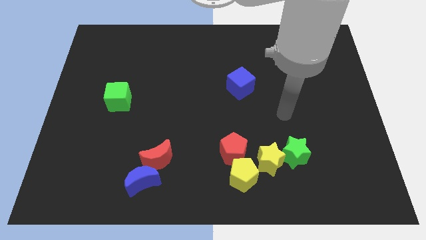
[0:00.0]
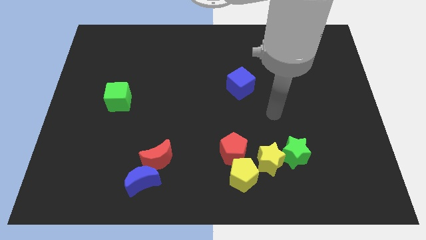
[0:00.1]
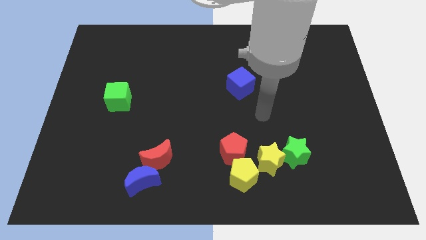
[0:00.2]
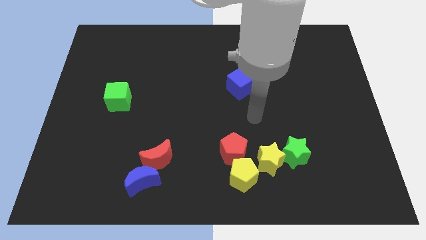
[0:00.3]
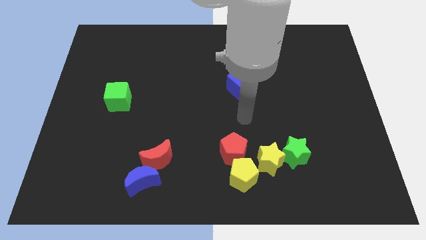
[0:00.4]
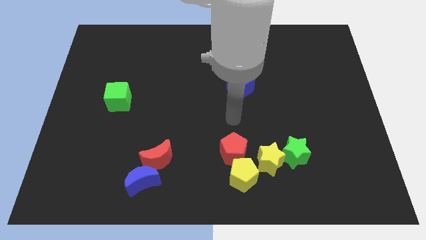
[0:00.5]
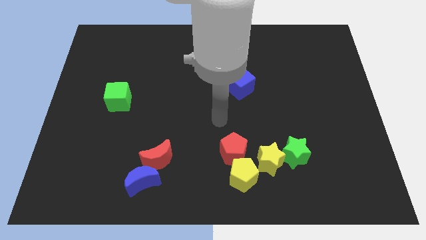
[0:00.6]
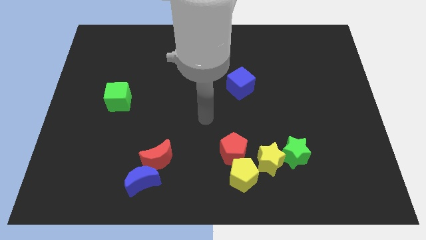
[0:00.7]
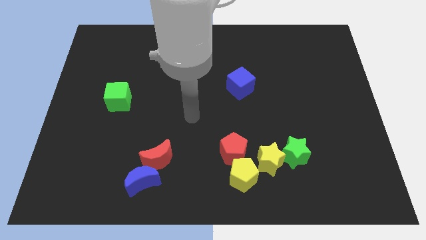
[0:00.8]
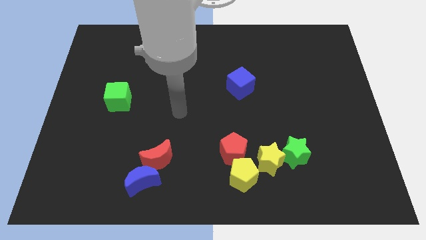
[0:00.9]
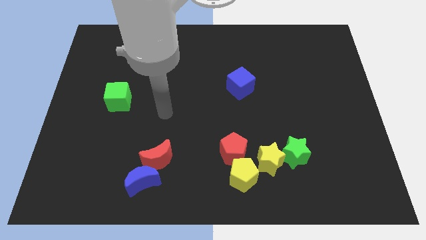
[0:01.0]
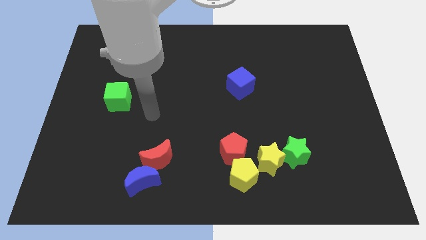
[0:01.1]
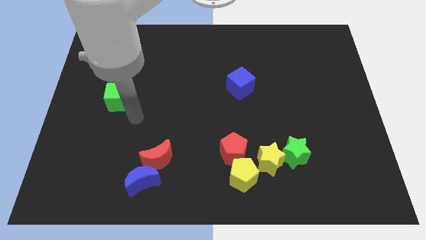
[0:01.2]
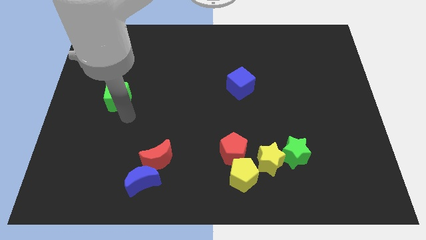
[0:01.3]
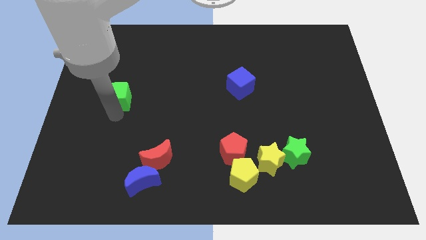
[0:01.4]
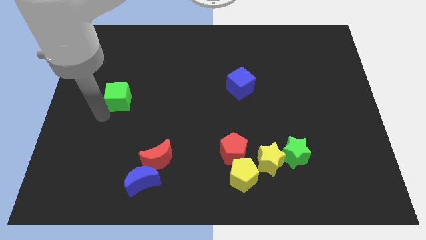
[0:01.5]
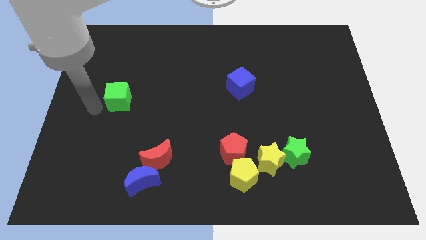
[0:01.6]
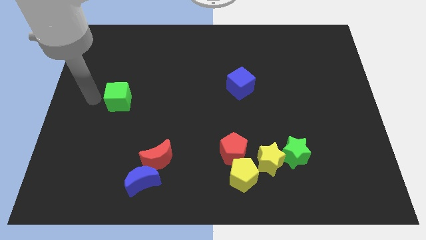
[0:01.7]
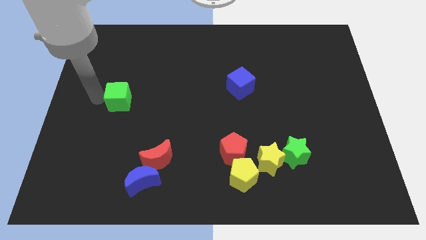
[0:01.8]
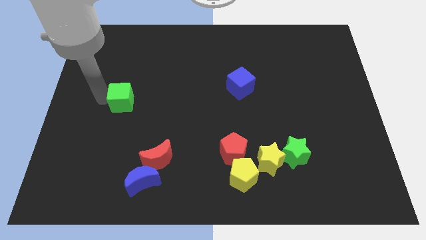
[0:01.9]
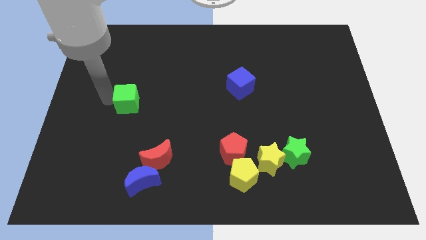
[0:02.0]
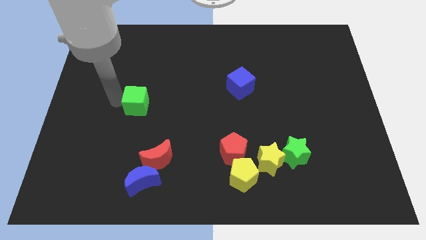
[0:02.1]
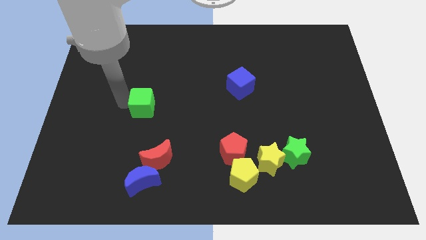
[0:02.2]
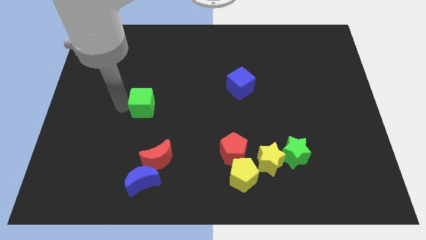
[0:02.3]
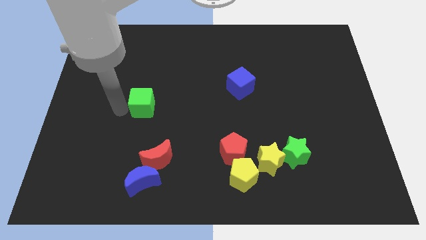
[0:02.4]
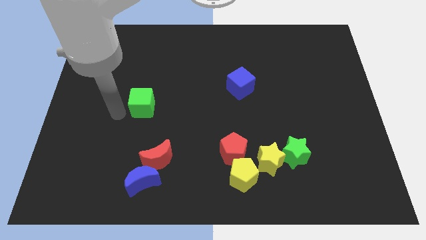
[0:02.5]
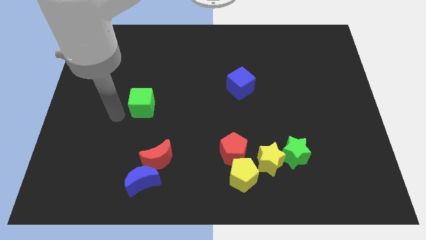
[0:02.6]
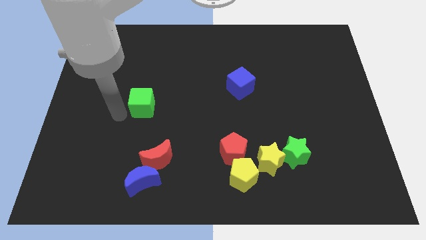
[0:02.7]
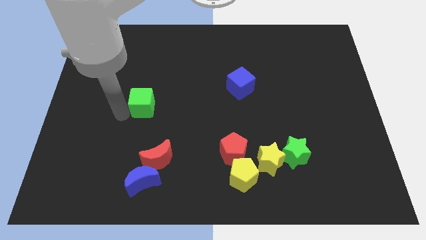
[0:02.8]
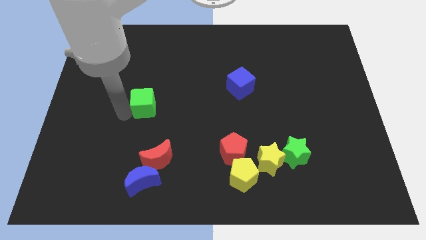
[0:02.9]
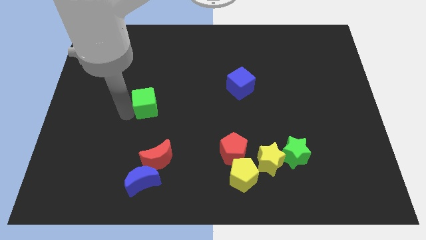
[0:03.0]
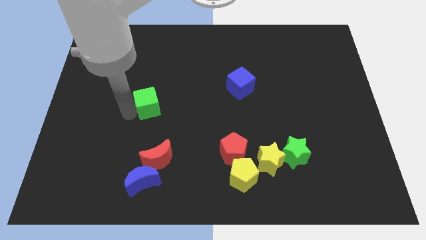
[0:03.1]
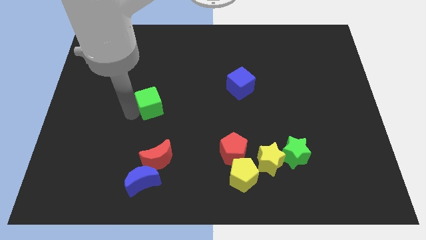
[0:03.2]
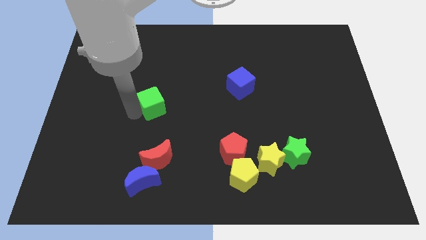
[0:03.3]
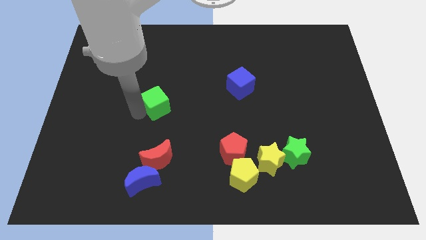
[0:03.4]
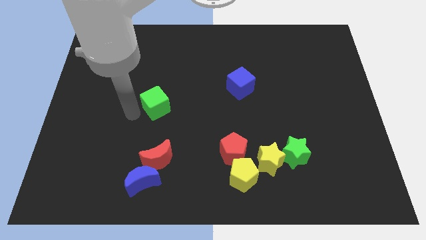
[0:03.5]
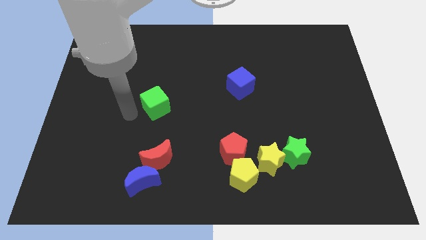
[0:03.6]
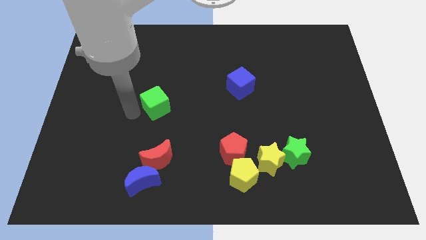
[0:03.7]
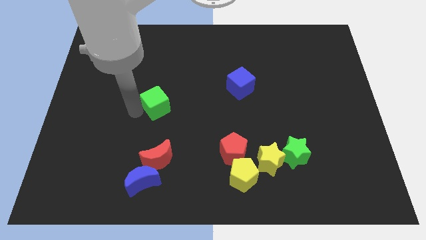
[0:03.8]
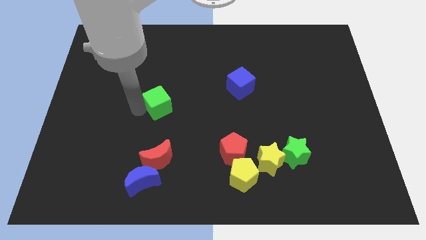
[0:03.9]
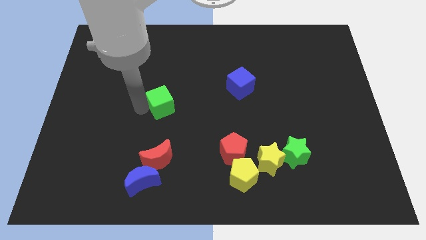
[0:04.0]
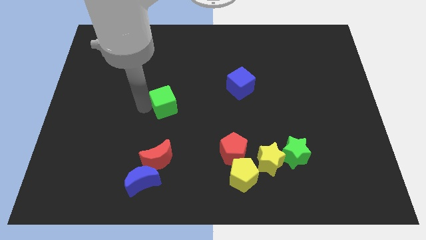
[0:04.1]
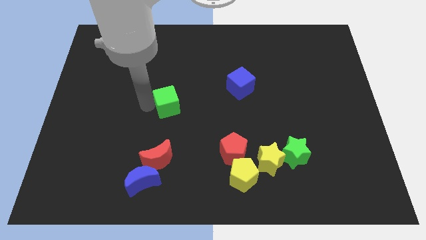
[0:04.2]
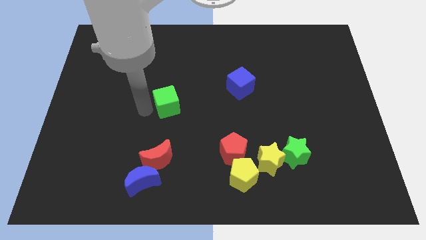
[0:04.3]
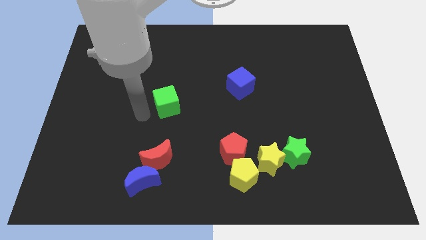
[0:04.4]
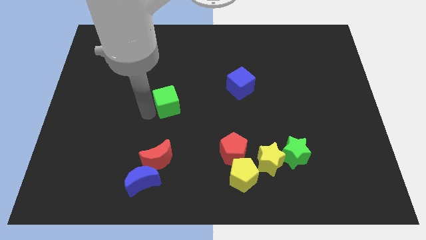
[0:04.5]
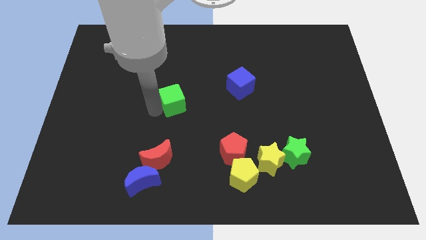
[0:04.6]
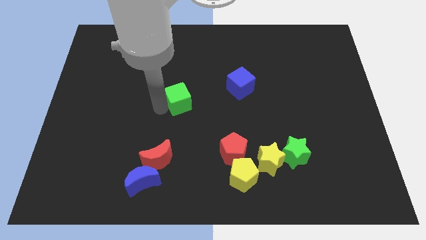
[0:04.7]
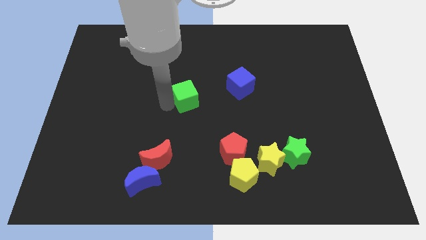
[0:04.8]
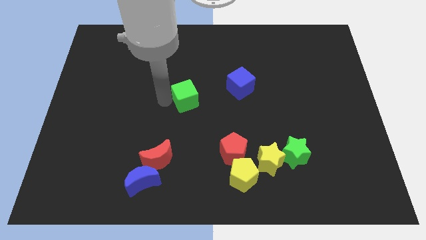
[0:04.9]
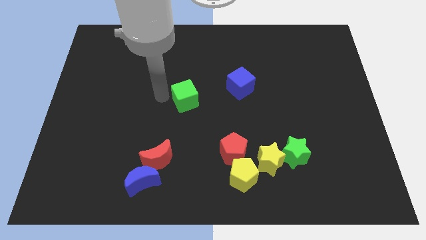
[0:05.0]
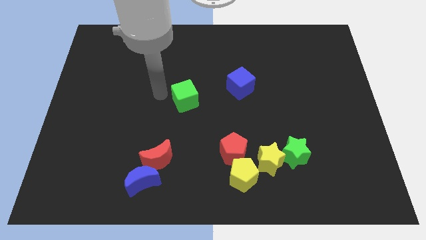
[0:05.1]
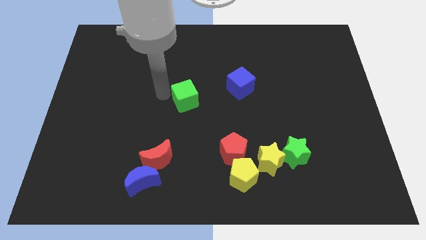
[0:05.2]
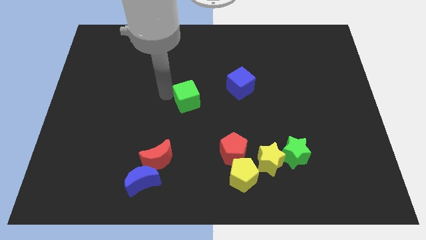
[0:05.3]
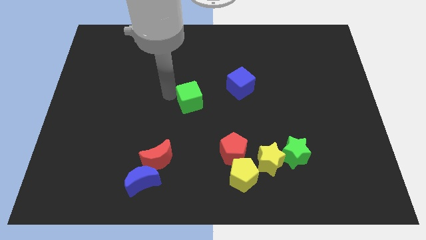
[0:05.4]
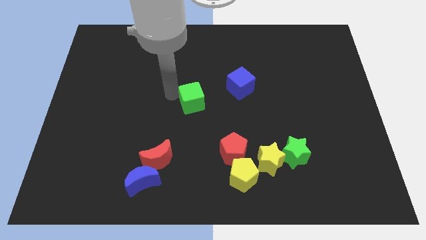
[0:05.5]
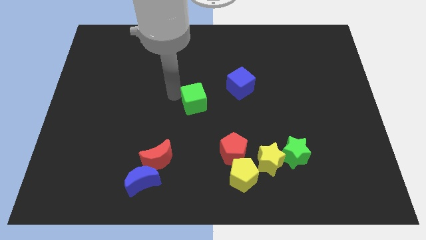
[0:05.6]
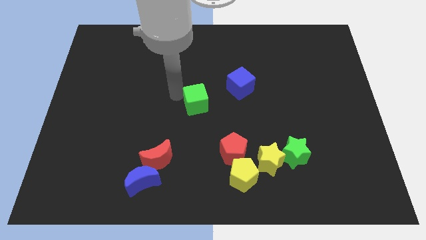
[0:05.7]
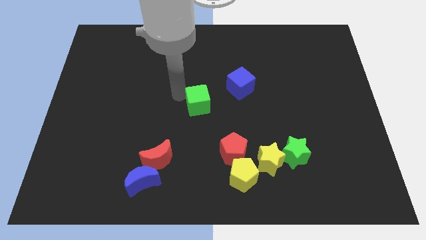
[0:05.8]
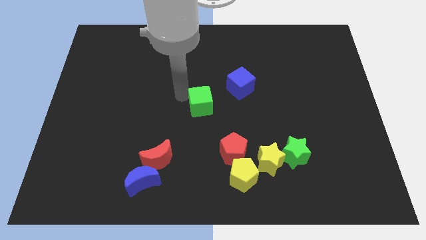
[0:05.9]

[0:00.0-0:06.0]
slide the green cube right

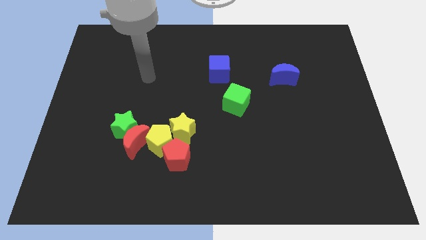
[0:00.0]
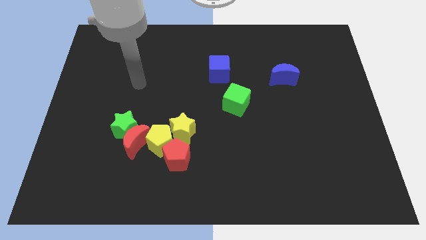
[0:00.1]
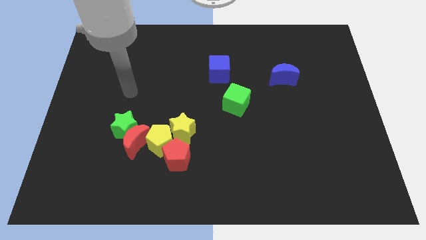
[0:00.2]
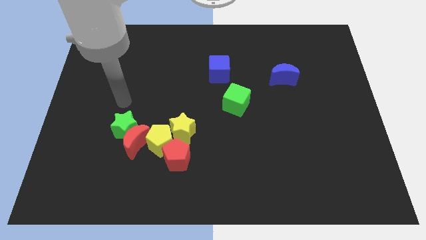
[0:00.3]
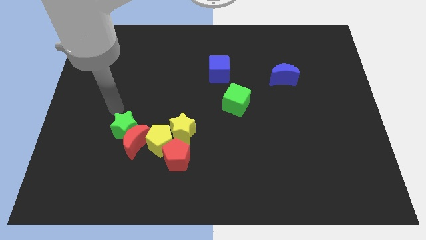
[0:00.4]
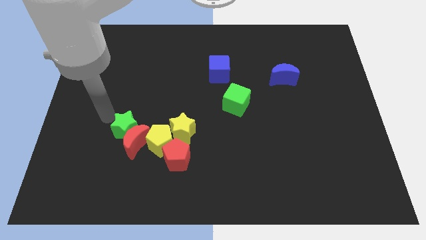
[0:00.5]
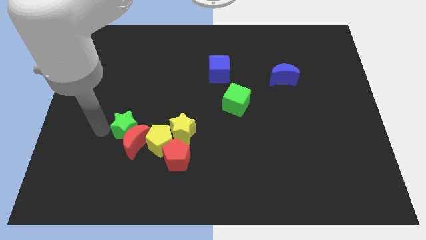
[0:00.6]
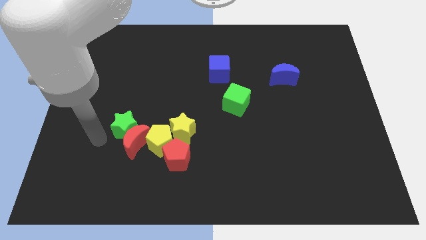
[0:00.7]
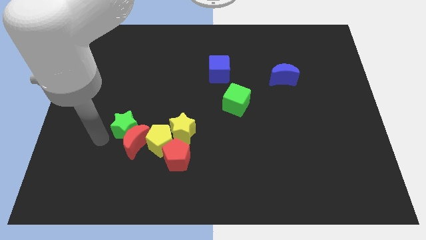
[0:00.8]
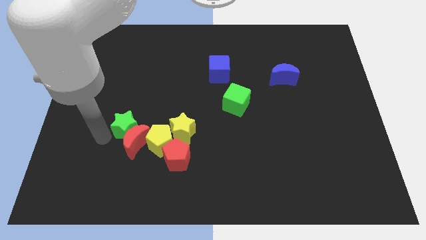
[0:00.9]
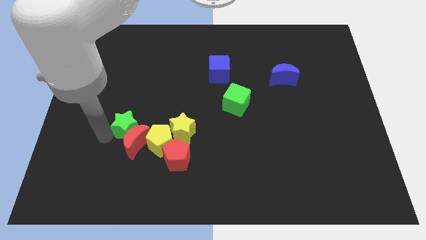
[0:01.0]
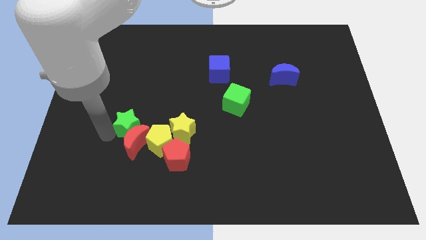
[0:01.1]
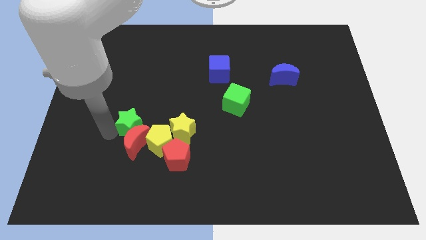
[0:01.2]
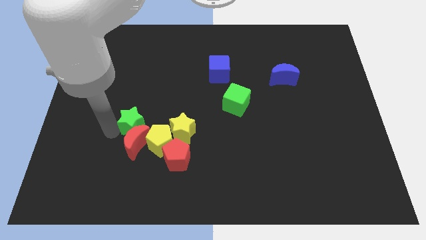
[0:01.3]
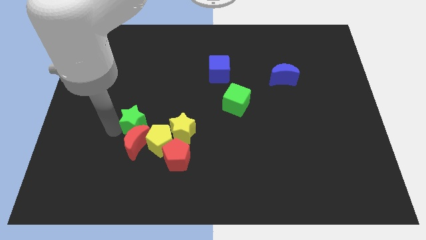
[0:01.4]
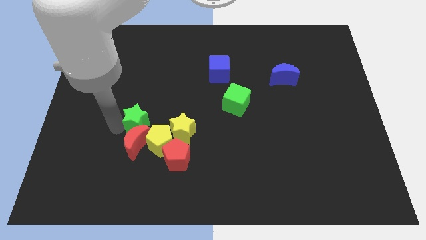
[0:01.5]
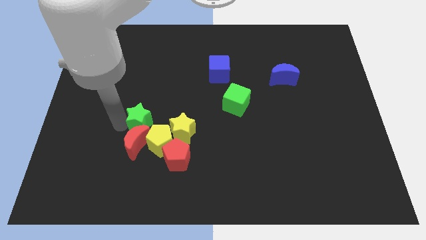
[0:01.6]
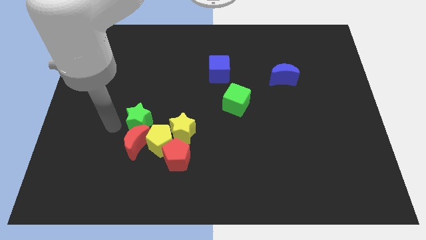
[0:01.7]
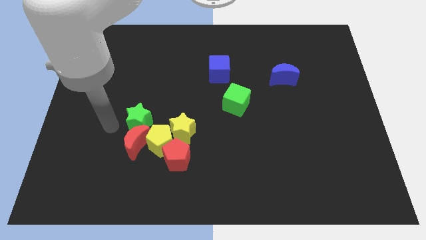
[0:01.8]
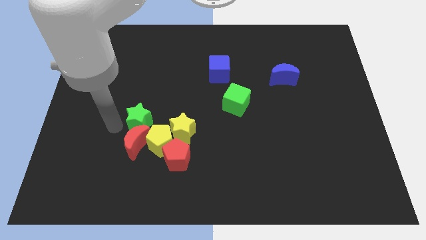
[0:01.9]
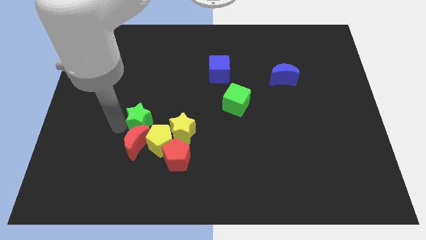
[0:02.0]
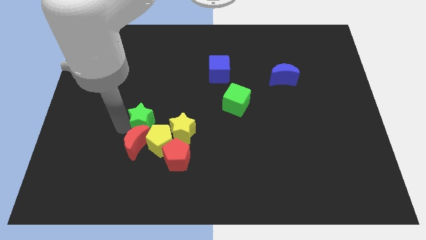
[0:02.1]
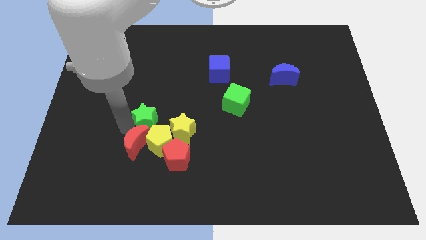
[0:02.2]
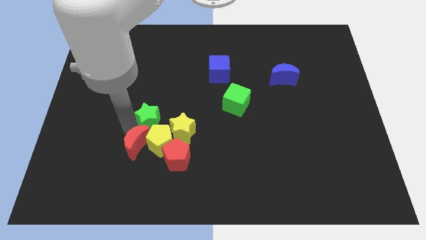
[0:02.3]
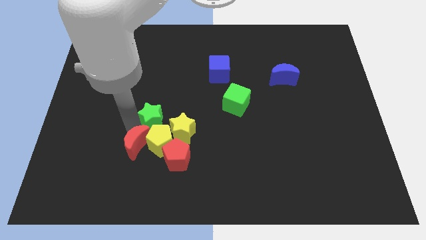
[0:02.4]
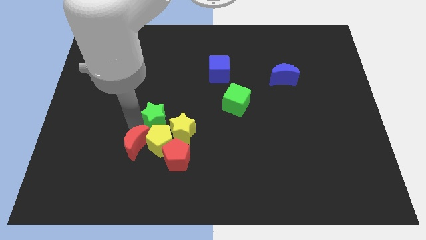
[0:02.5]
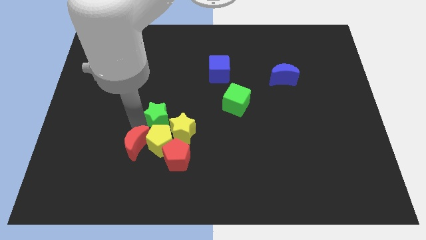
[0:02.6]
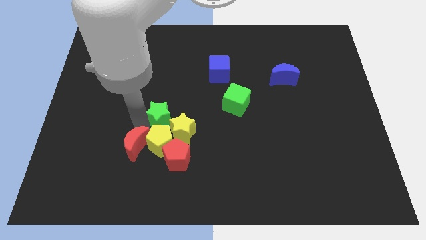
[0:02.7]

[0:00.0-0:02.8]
push the green star to the right a little bit
